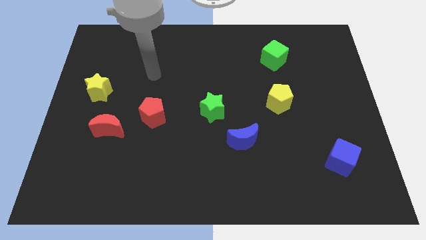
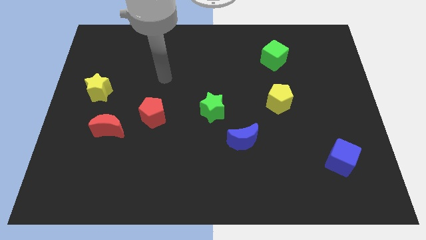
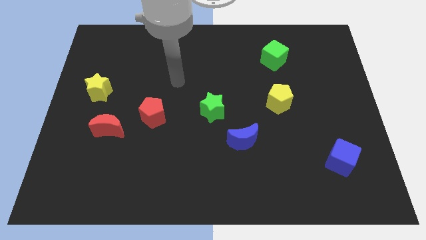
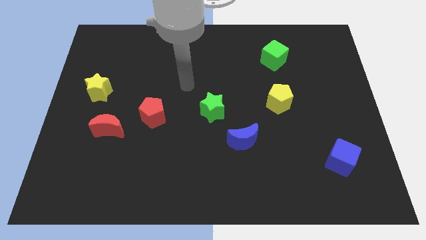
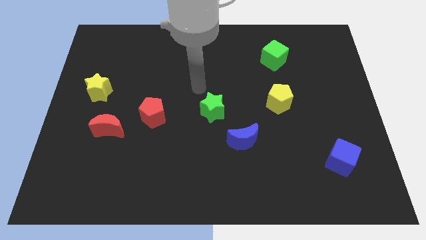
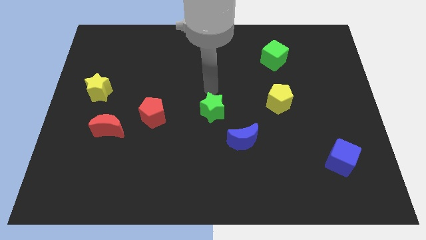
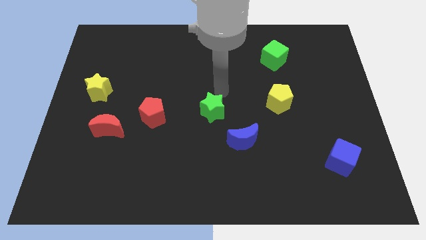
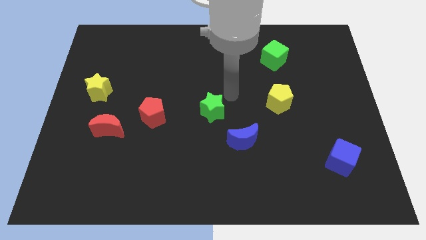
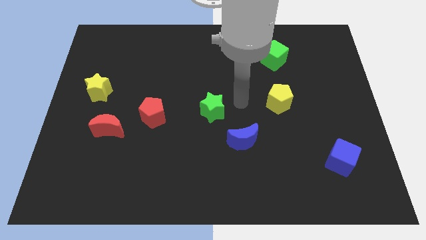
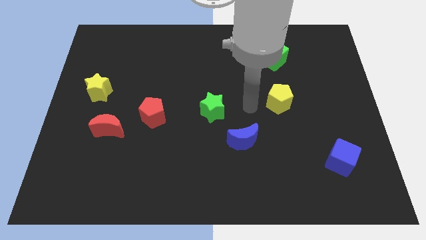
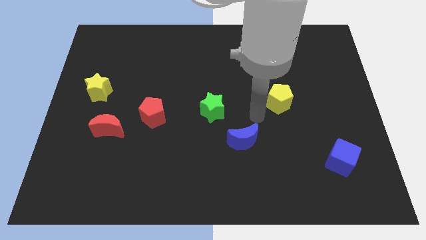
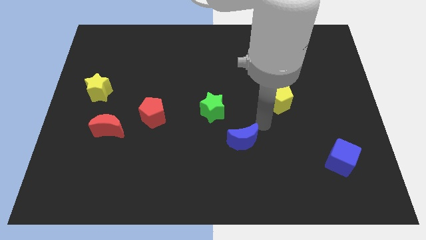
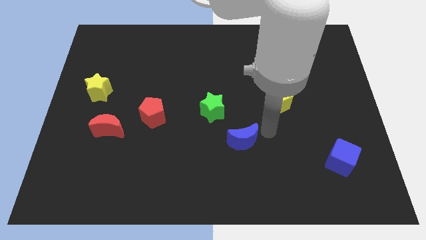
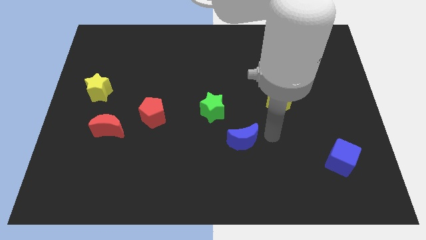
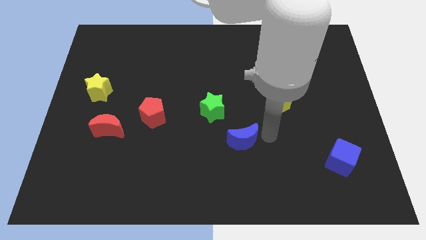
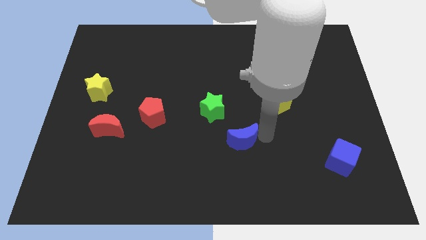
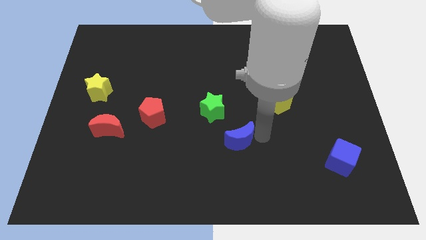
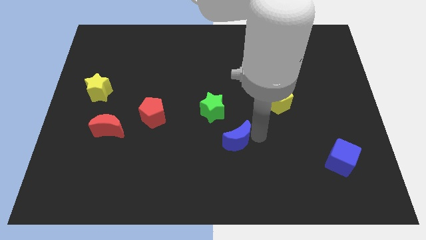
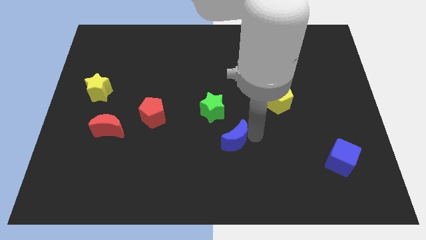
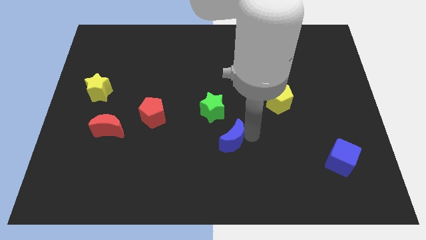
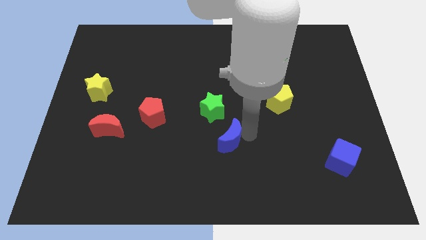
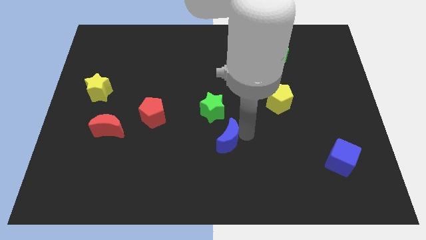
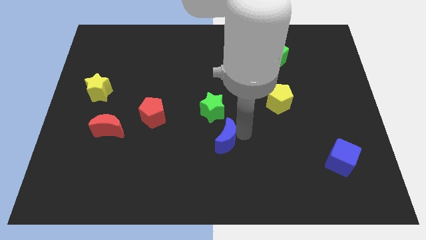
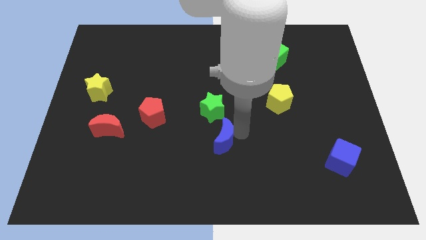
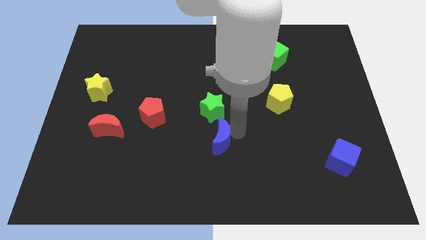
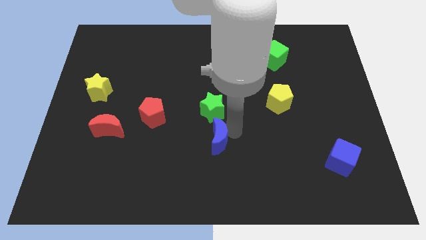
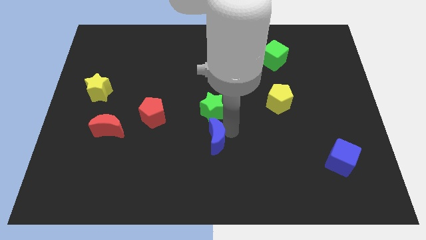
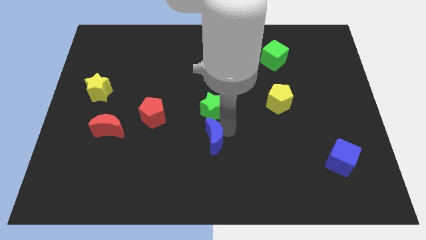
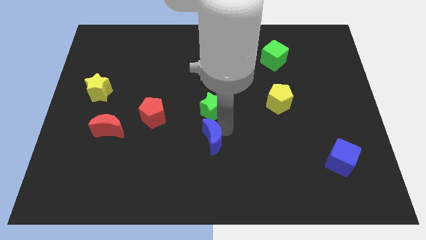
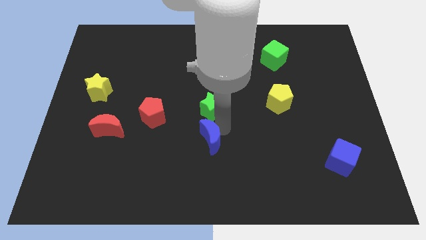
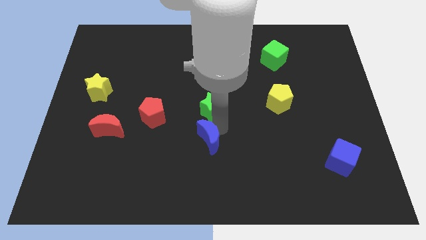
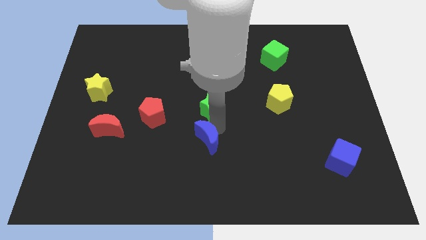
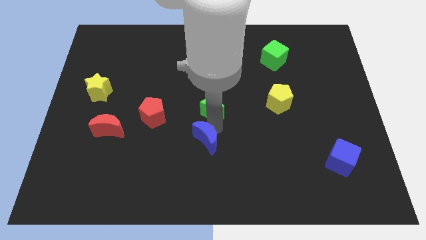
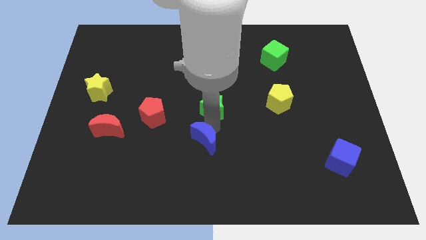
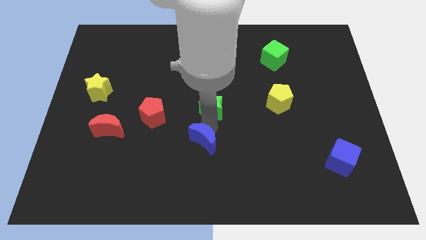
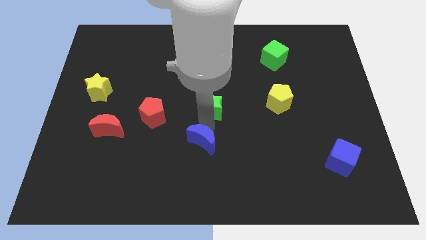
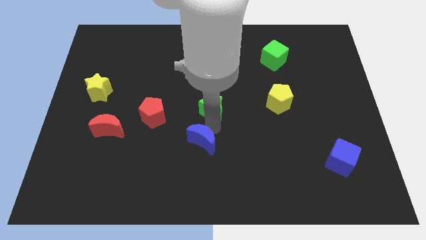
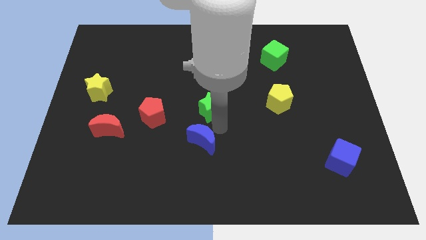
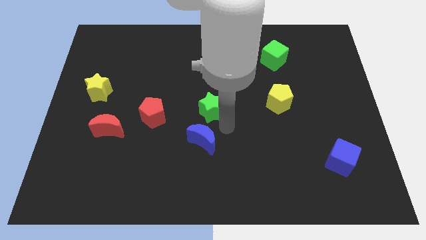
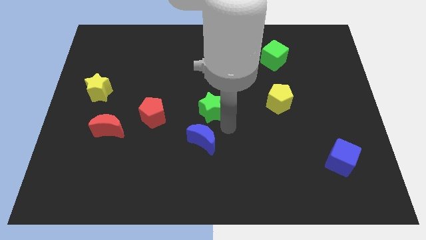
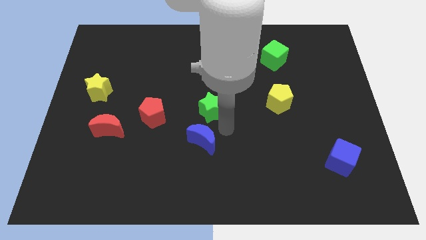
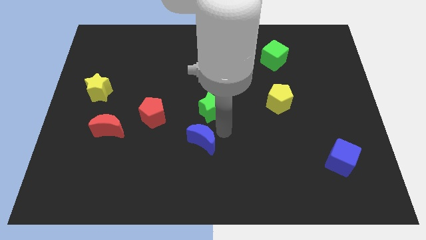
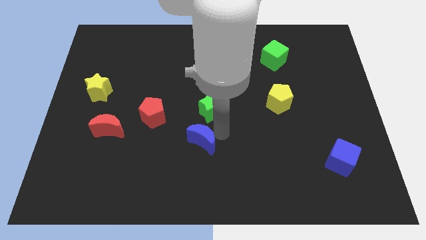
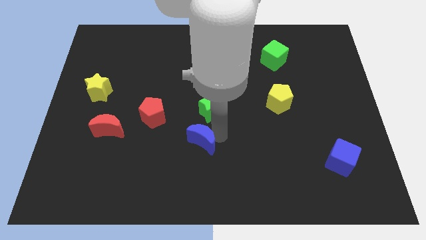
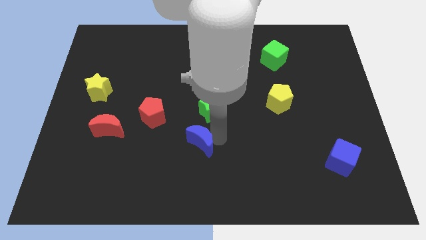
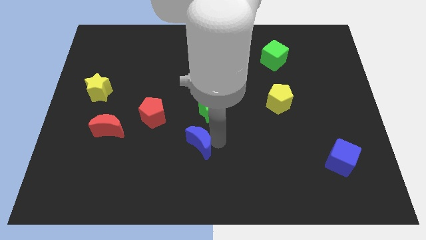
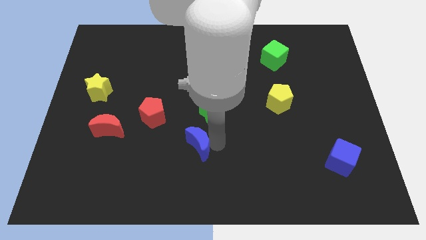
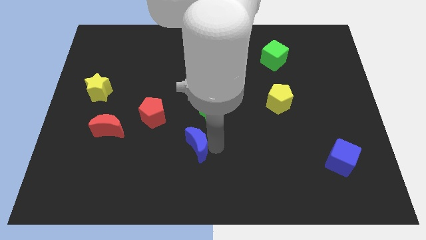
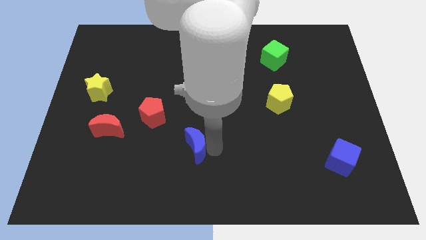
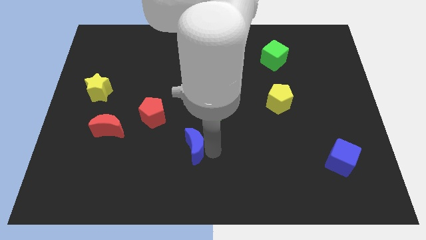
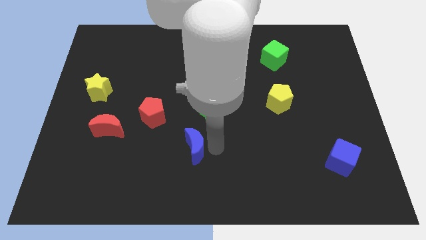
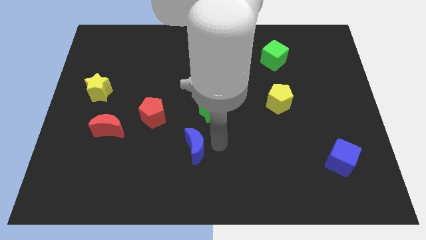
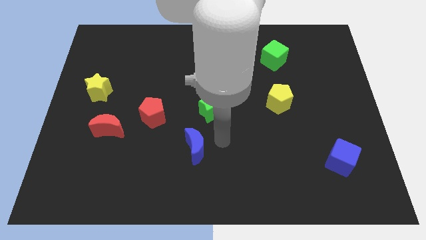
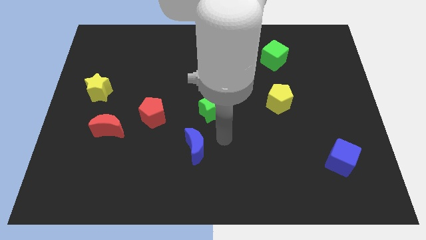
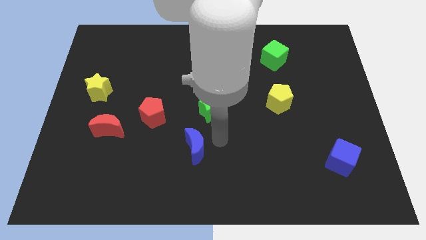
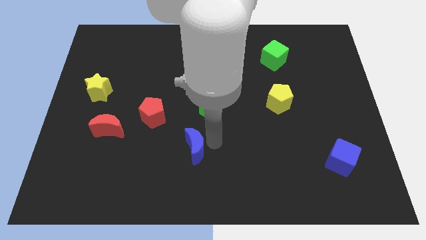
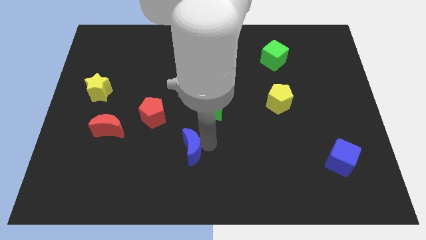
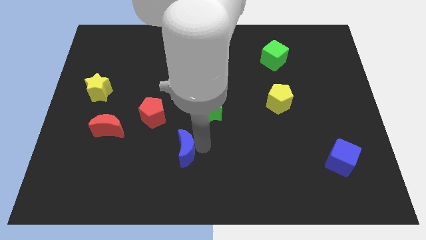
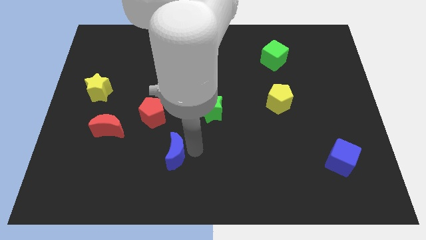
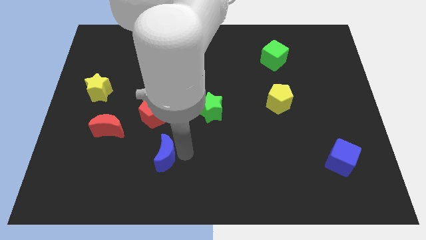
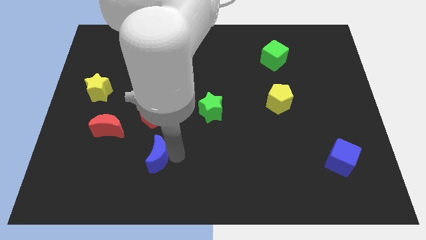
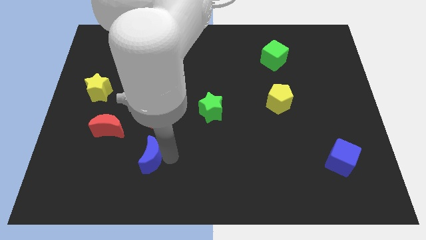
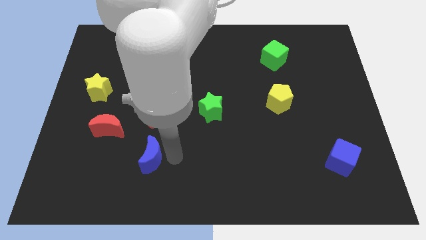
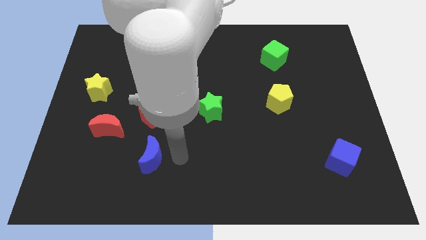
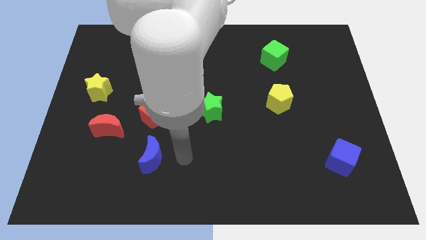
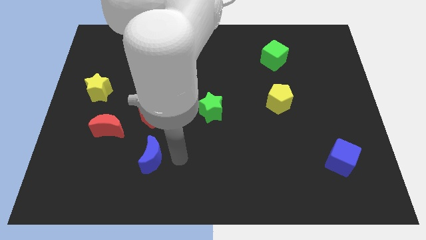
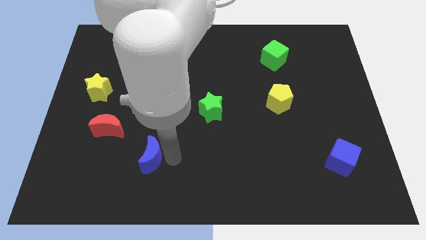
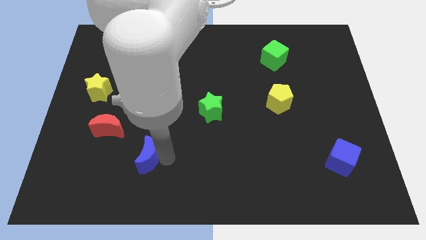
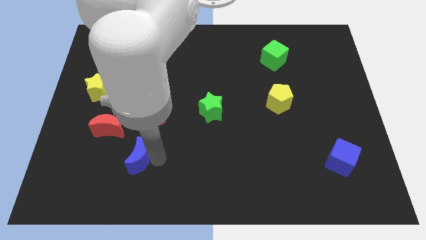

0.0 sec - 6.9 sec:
move the blue moon to the left

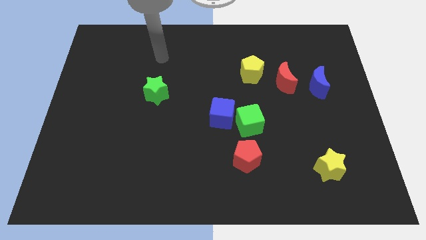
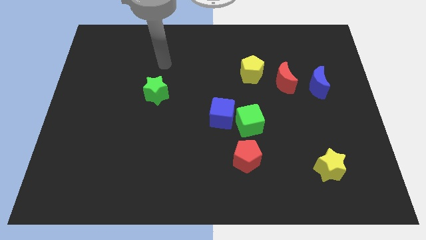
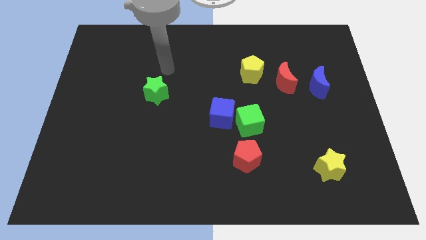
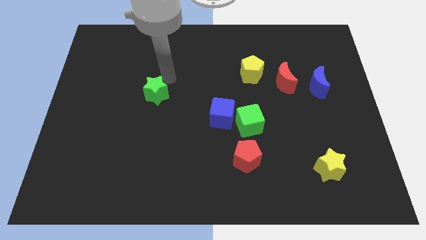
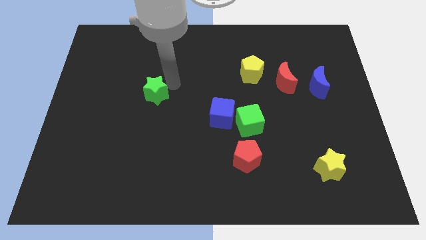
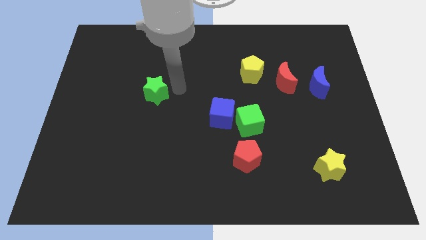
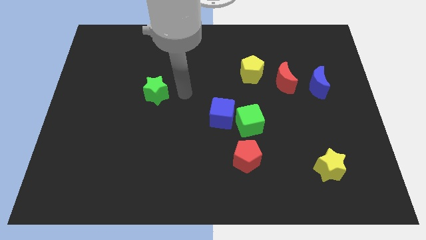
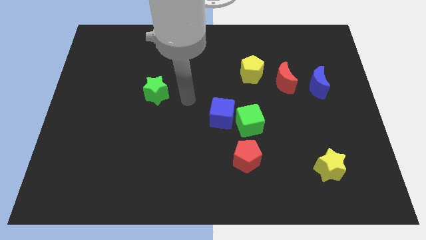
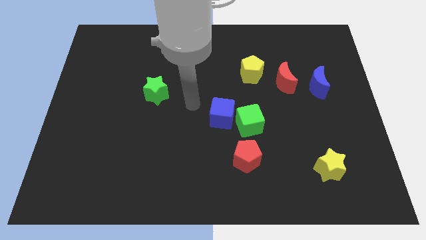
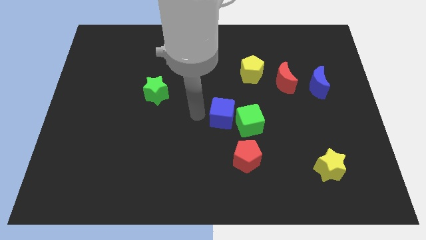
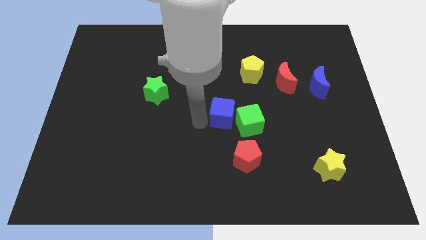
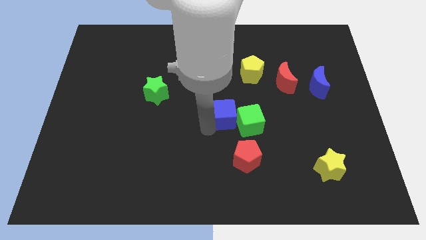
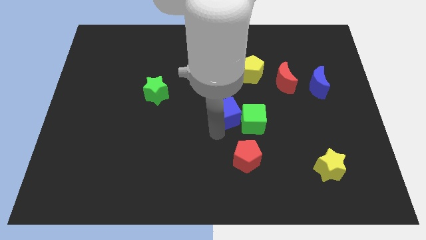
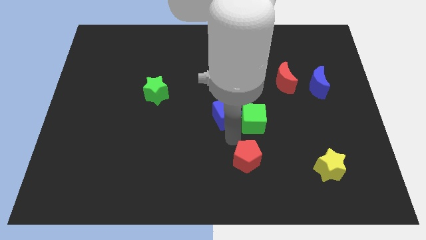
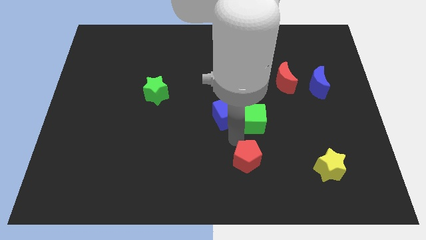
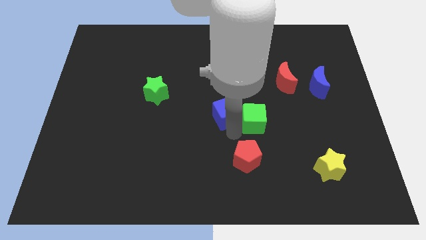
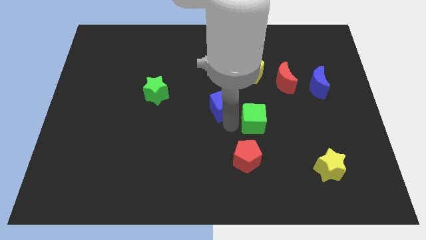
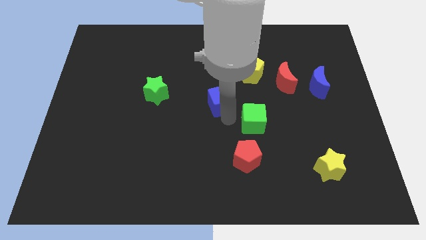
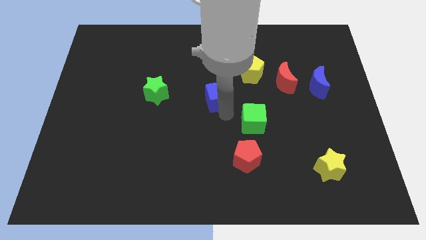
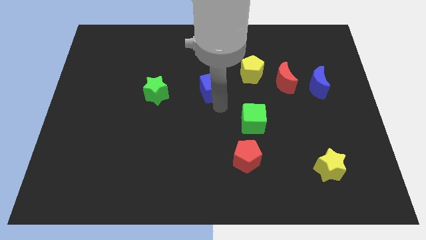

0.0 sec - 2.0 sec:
move the blue cube slightly up
